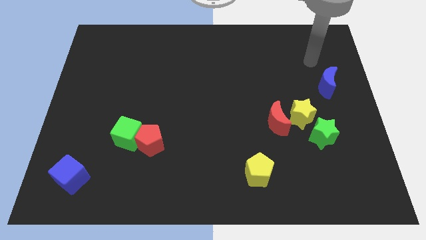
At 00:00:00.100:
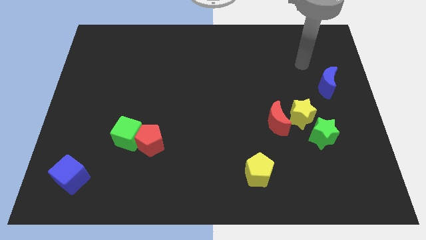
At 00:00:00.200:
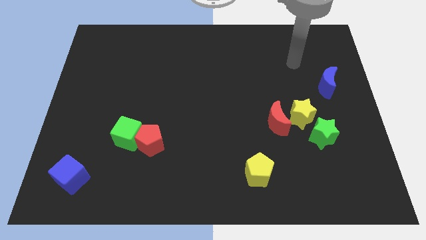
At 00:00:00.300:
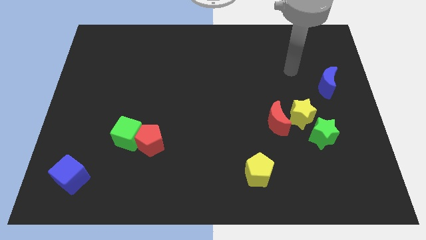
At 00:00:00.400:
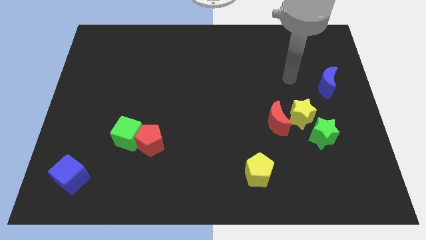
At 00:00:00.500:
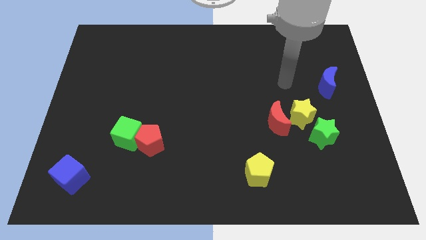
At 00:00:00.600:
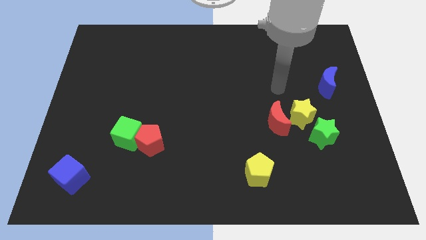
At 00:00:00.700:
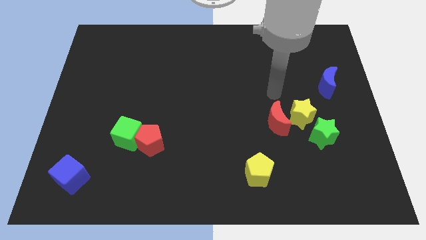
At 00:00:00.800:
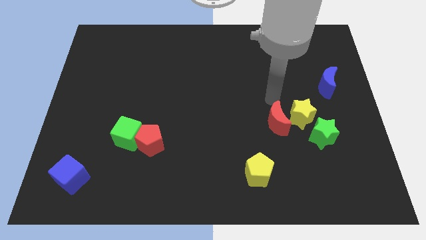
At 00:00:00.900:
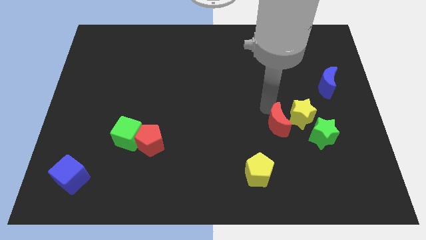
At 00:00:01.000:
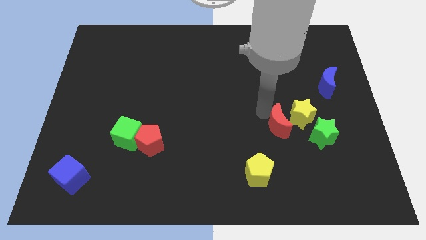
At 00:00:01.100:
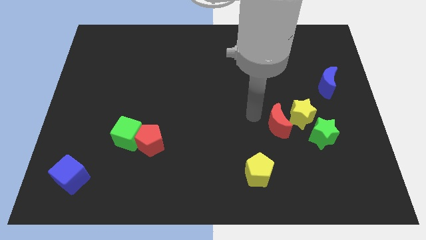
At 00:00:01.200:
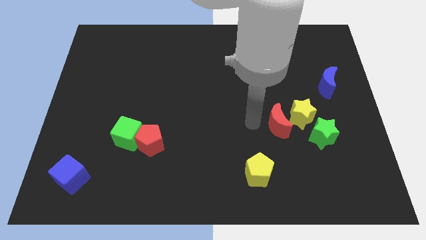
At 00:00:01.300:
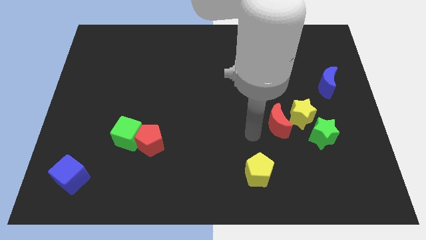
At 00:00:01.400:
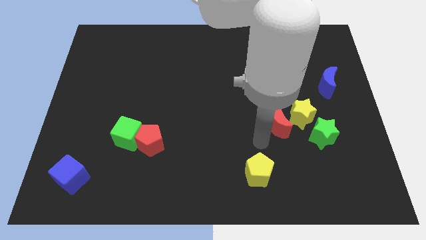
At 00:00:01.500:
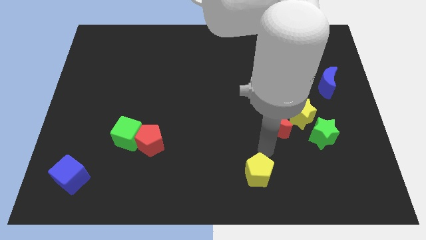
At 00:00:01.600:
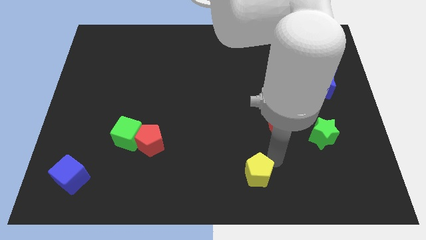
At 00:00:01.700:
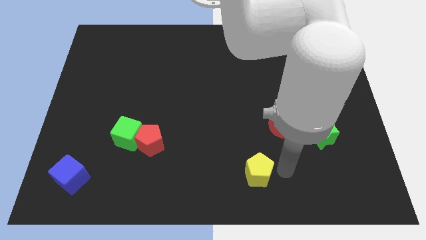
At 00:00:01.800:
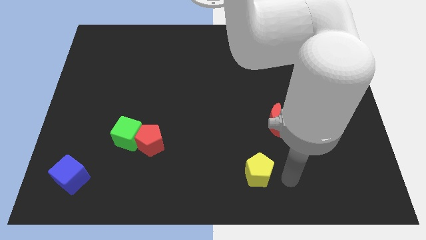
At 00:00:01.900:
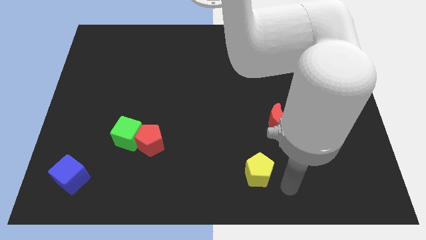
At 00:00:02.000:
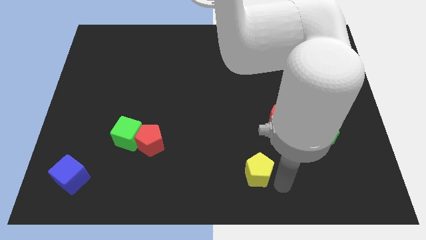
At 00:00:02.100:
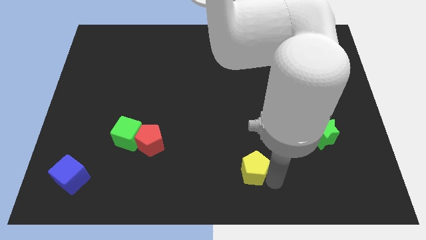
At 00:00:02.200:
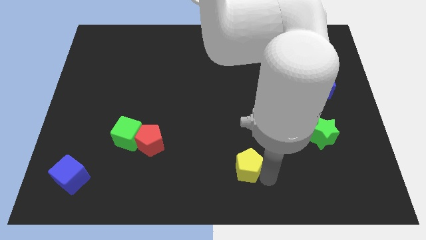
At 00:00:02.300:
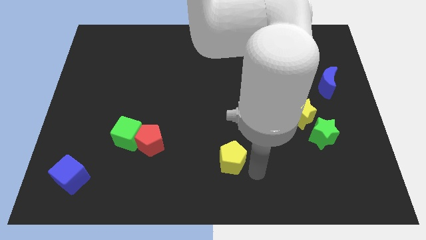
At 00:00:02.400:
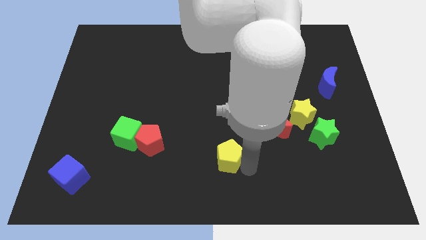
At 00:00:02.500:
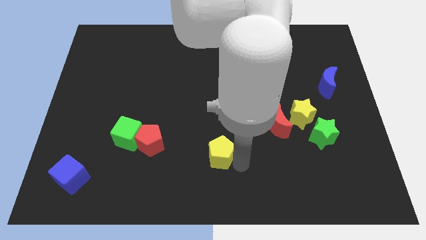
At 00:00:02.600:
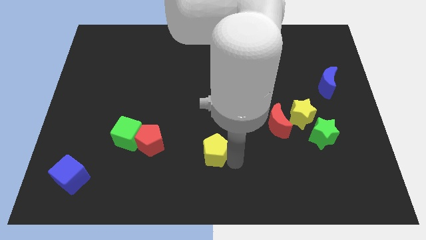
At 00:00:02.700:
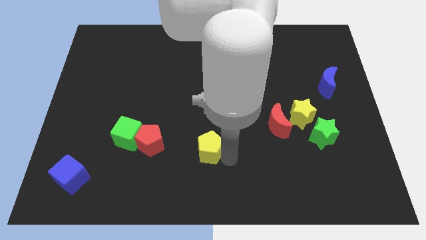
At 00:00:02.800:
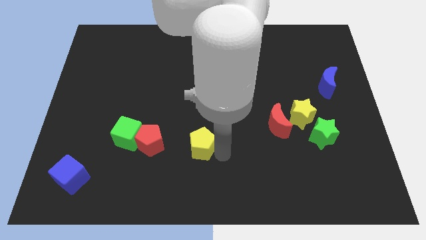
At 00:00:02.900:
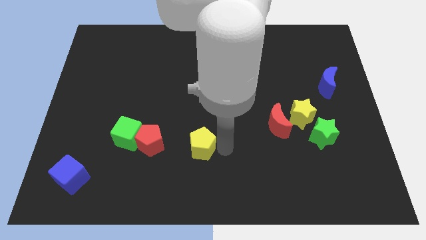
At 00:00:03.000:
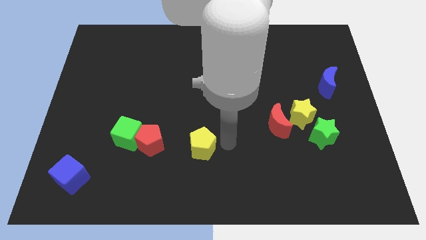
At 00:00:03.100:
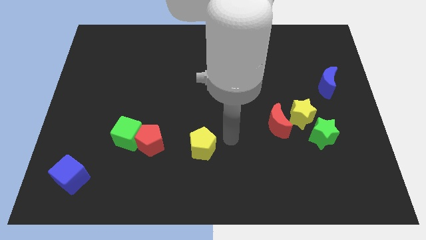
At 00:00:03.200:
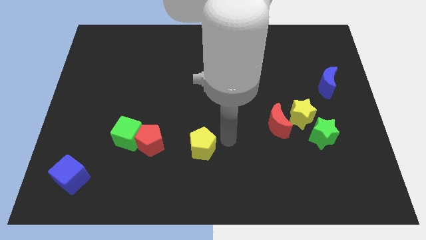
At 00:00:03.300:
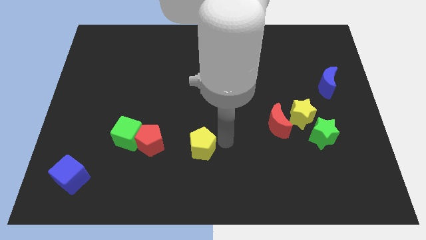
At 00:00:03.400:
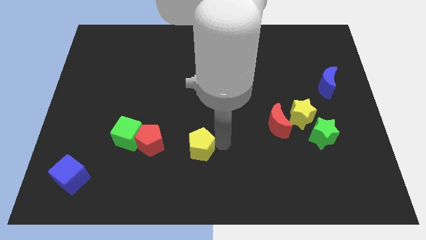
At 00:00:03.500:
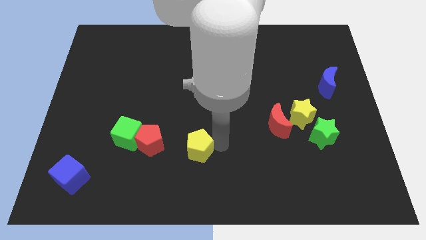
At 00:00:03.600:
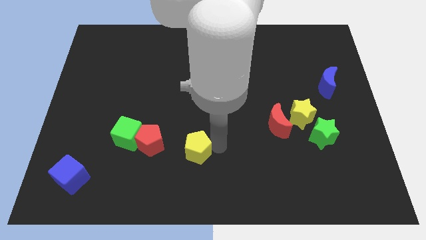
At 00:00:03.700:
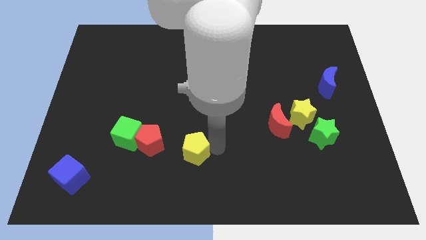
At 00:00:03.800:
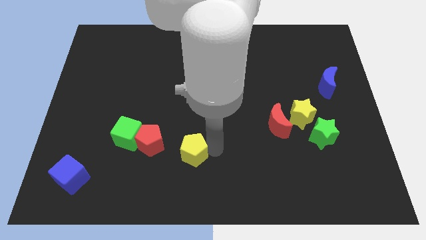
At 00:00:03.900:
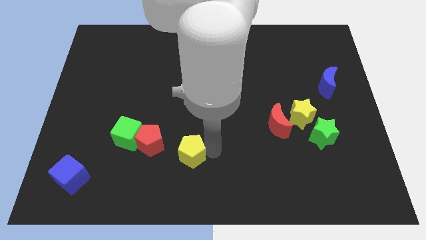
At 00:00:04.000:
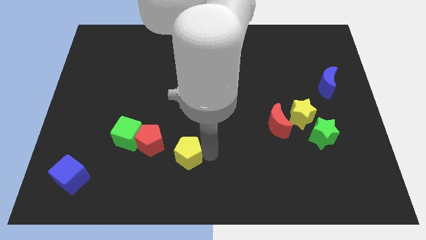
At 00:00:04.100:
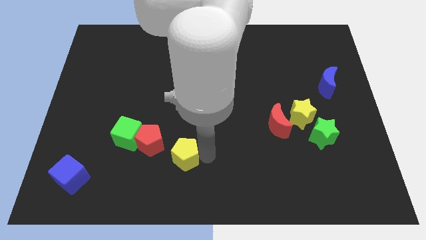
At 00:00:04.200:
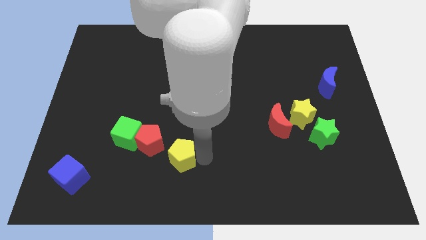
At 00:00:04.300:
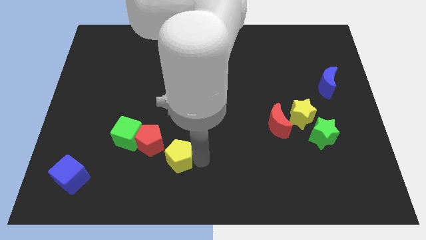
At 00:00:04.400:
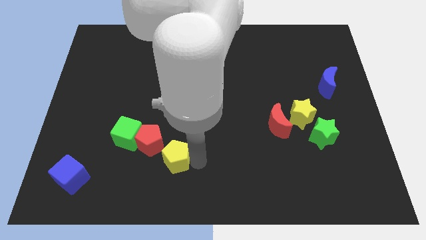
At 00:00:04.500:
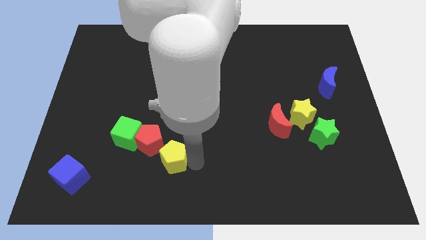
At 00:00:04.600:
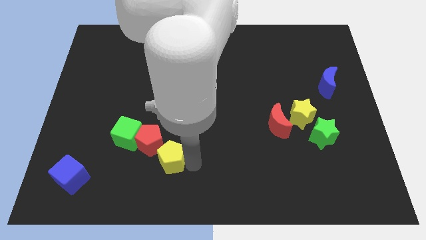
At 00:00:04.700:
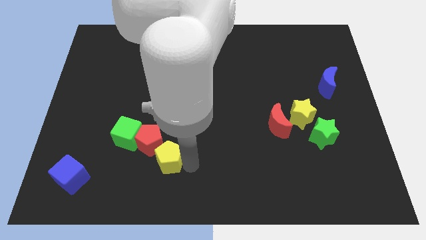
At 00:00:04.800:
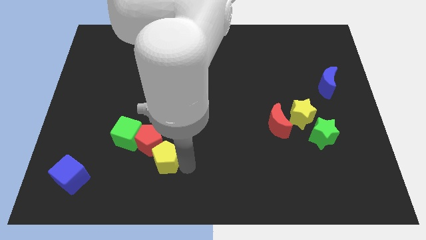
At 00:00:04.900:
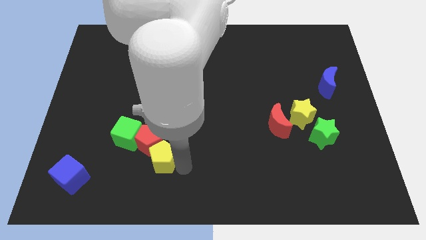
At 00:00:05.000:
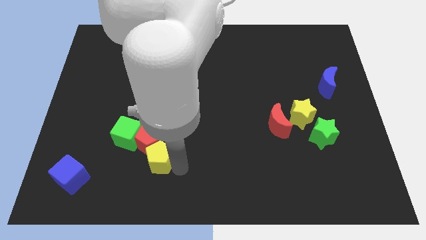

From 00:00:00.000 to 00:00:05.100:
slide the yellow pentagon left

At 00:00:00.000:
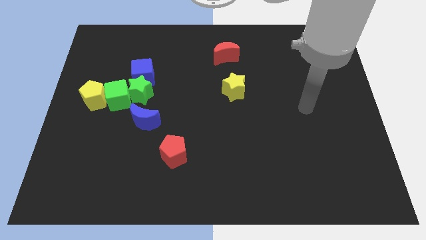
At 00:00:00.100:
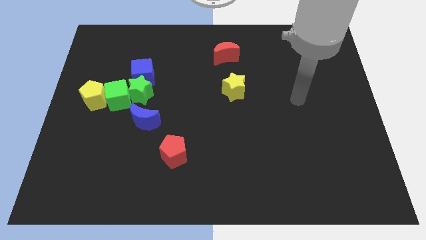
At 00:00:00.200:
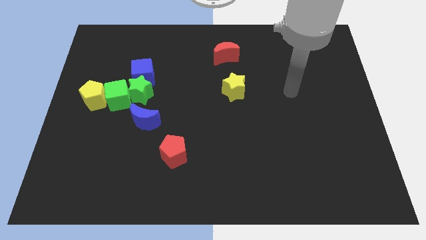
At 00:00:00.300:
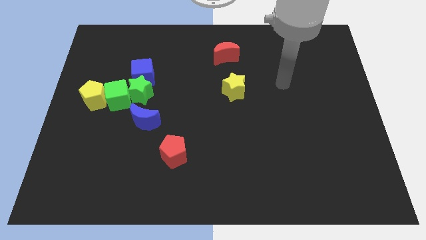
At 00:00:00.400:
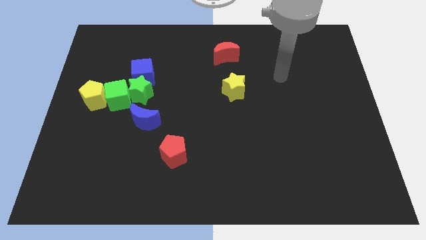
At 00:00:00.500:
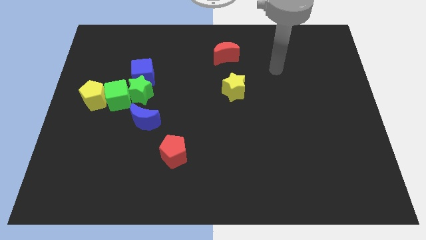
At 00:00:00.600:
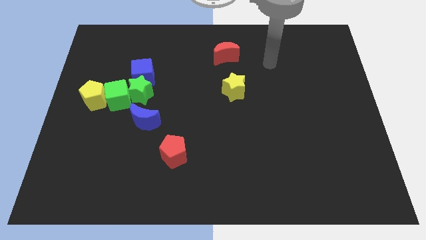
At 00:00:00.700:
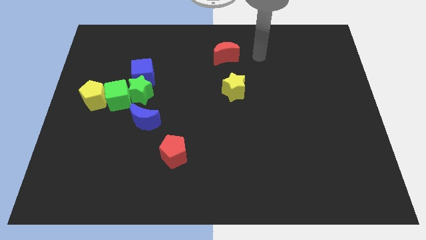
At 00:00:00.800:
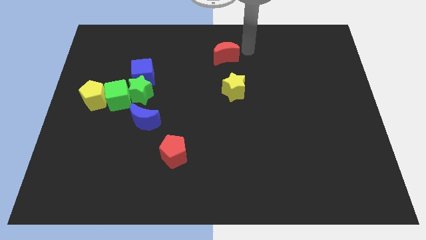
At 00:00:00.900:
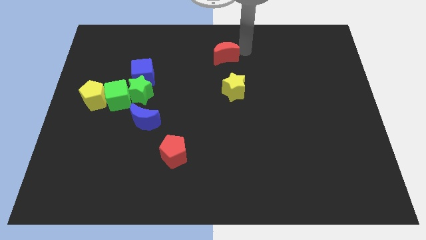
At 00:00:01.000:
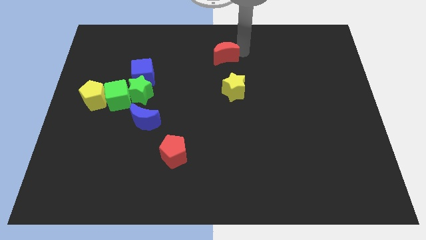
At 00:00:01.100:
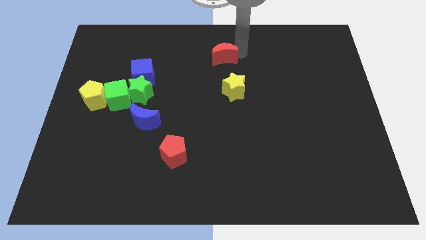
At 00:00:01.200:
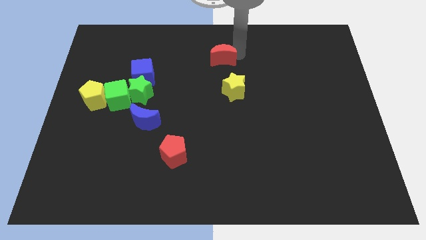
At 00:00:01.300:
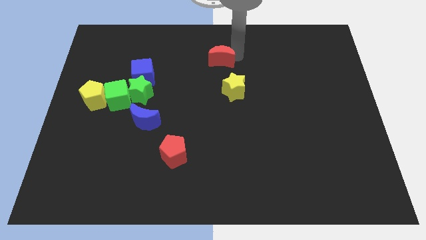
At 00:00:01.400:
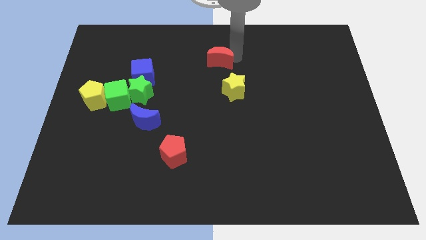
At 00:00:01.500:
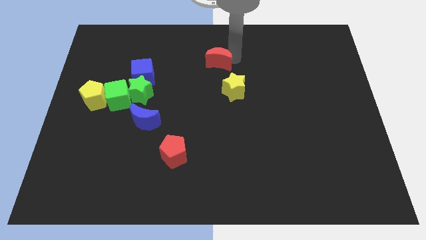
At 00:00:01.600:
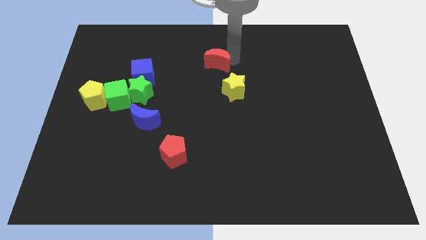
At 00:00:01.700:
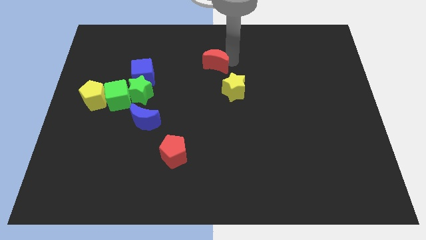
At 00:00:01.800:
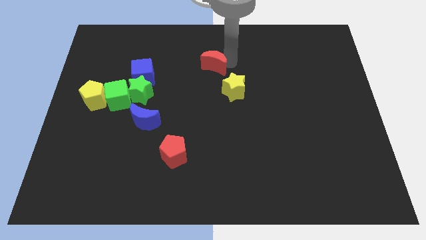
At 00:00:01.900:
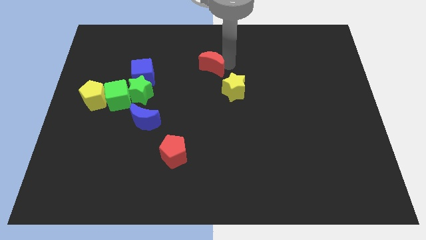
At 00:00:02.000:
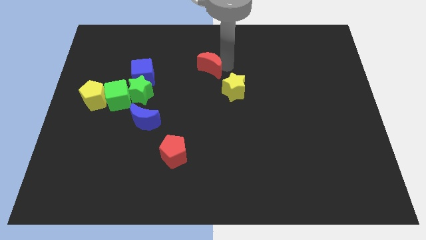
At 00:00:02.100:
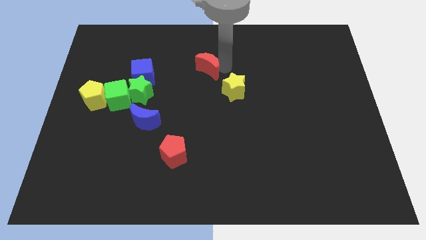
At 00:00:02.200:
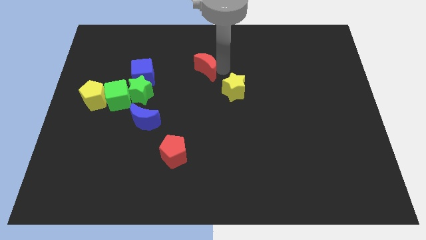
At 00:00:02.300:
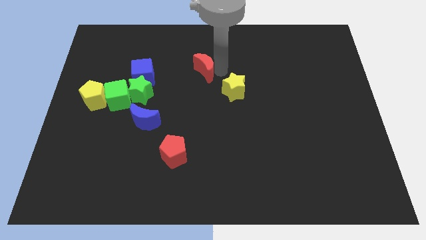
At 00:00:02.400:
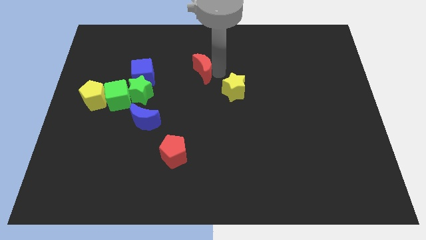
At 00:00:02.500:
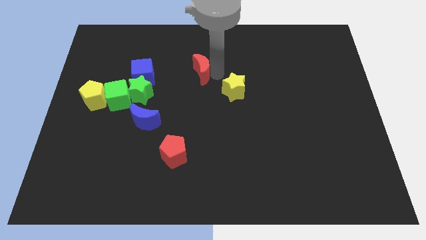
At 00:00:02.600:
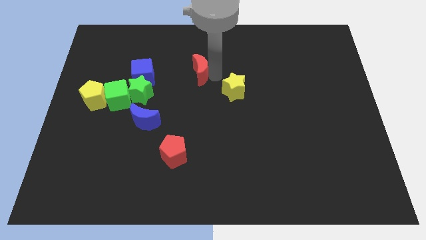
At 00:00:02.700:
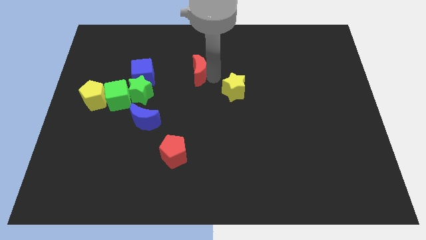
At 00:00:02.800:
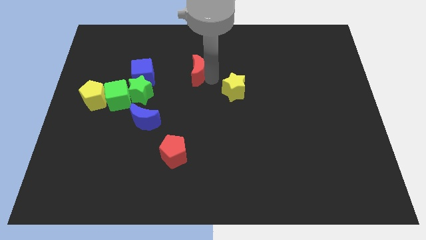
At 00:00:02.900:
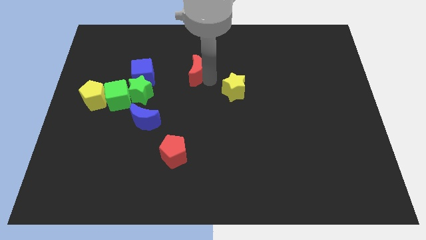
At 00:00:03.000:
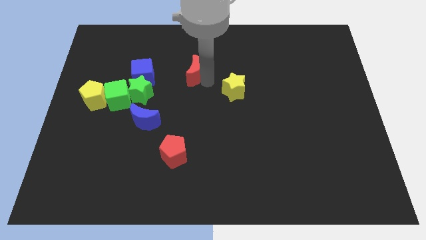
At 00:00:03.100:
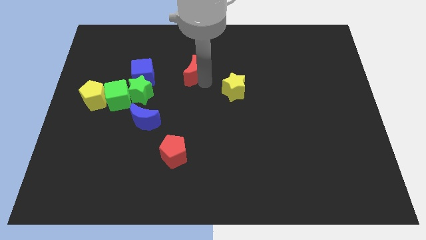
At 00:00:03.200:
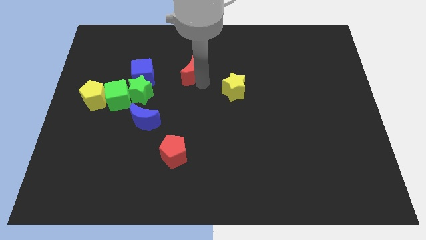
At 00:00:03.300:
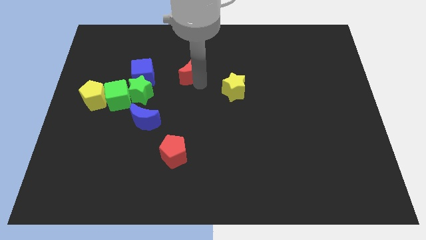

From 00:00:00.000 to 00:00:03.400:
slightly push the red moon left
